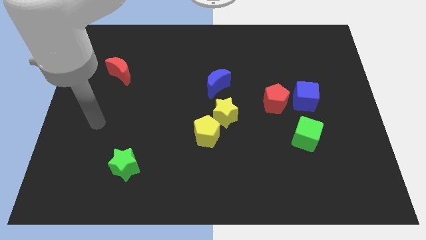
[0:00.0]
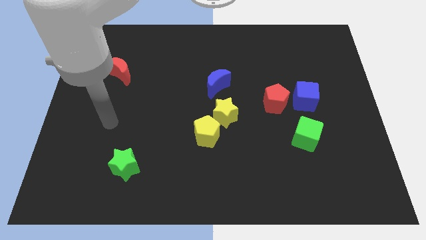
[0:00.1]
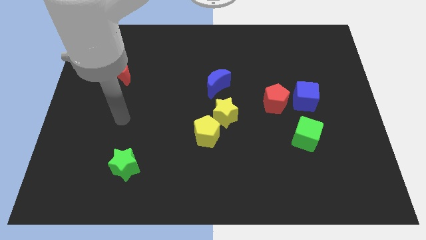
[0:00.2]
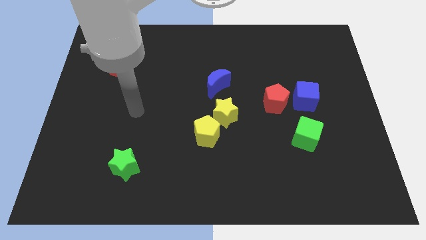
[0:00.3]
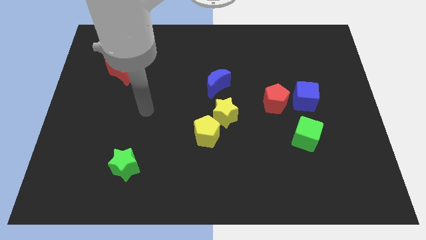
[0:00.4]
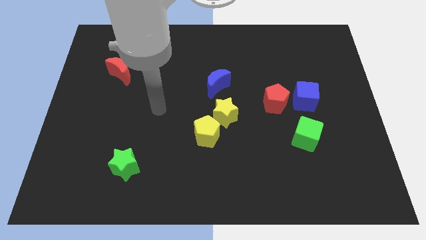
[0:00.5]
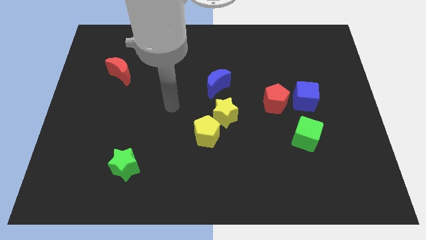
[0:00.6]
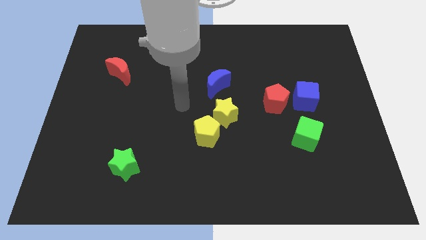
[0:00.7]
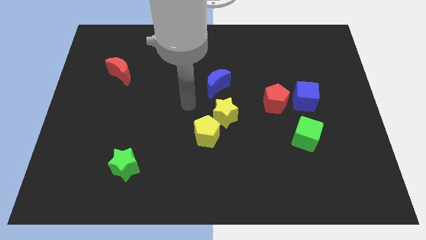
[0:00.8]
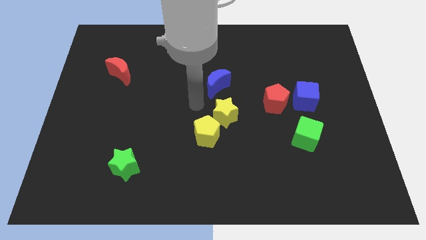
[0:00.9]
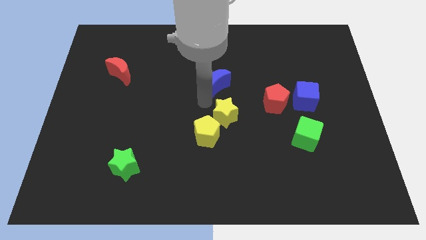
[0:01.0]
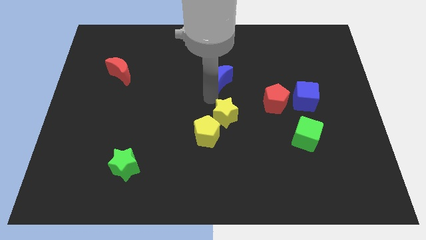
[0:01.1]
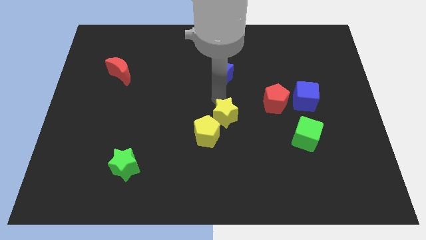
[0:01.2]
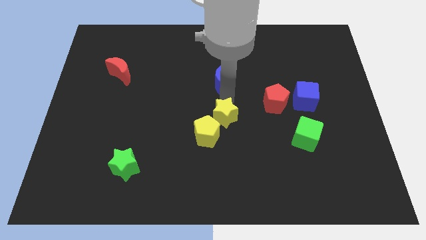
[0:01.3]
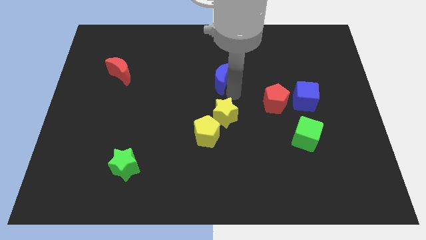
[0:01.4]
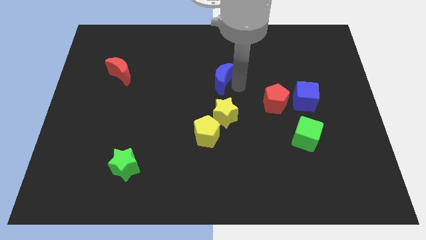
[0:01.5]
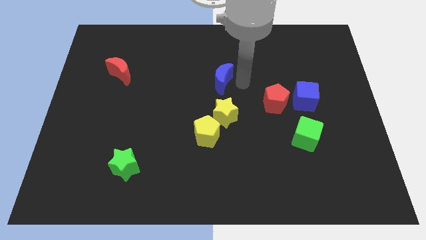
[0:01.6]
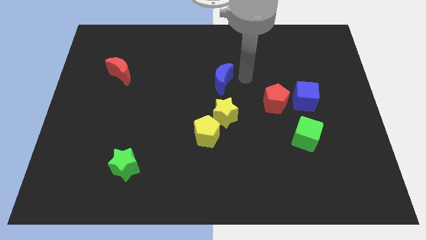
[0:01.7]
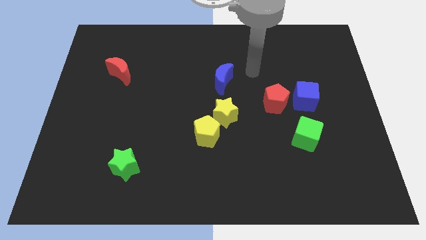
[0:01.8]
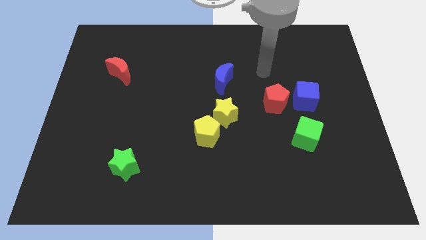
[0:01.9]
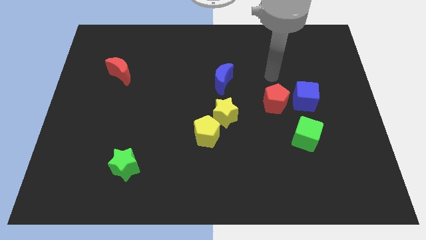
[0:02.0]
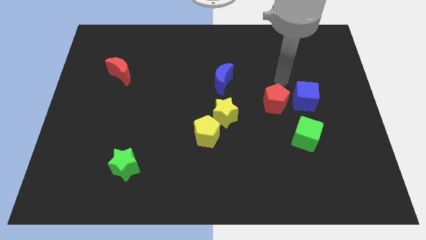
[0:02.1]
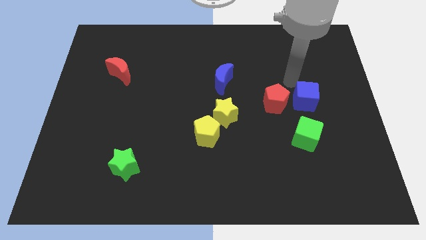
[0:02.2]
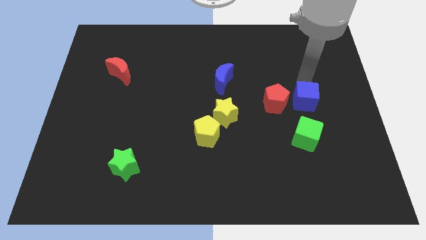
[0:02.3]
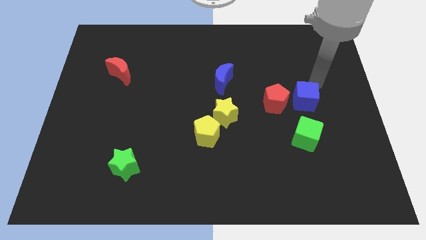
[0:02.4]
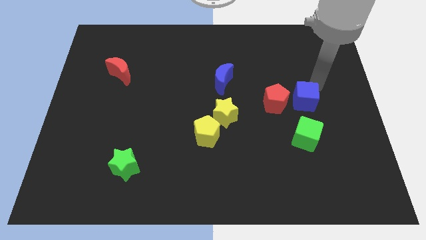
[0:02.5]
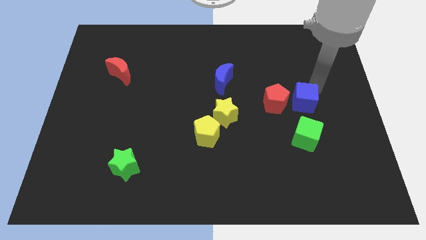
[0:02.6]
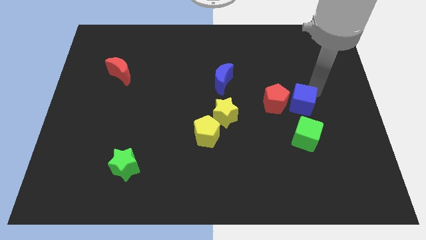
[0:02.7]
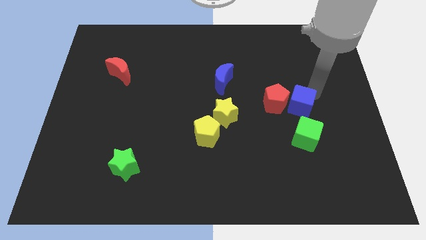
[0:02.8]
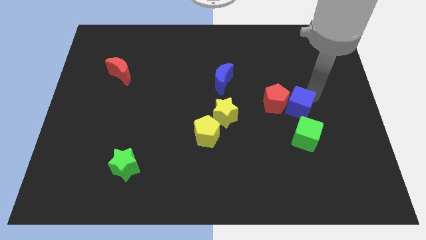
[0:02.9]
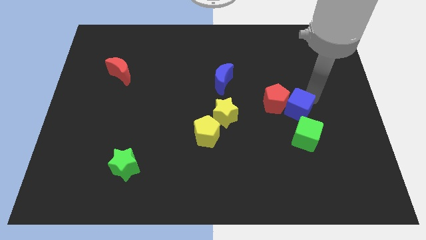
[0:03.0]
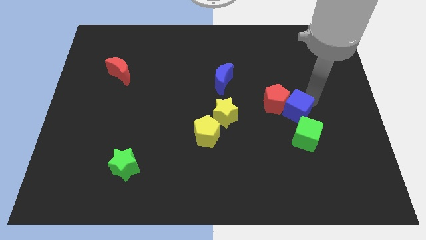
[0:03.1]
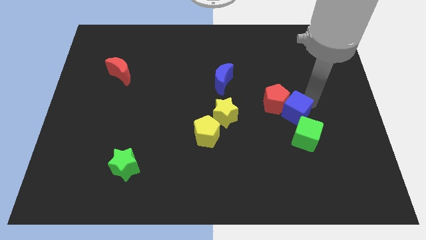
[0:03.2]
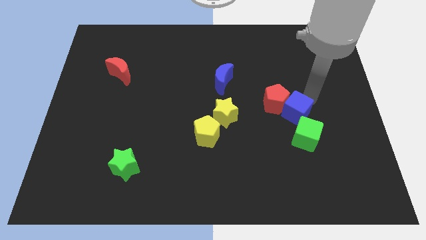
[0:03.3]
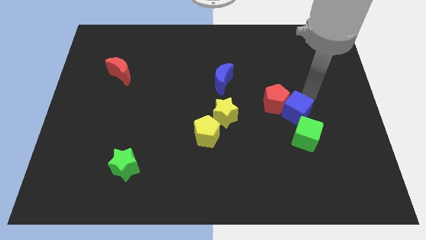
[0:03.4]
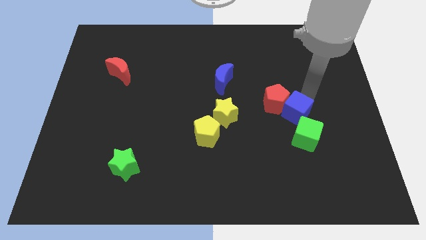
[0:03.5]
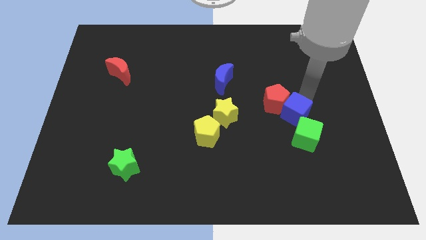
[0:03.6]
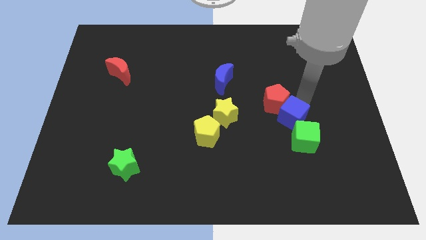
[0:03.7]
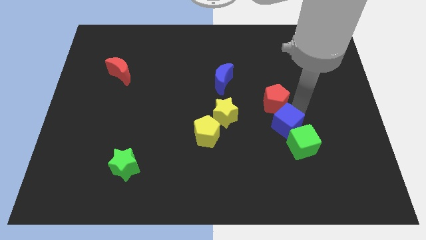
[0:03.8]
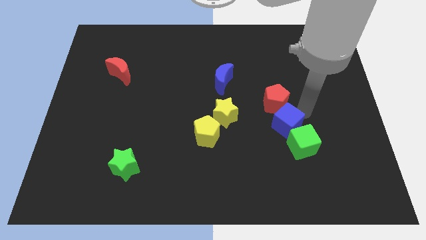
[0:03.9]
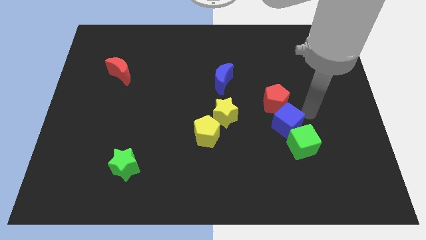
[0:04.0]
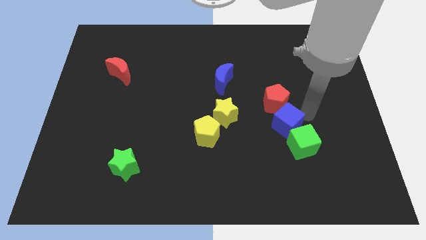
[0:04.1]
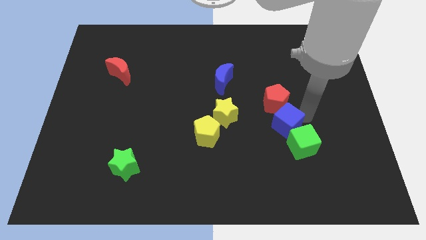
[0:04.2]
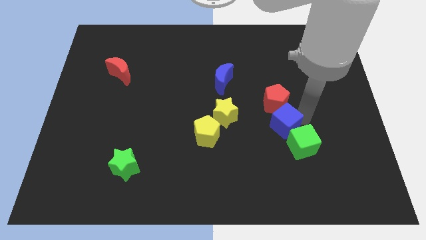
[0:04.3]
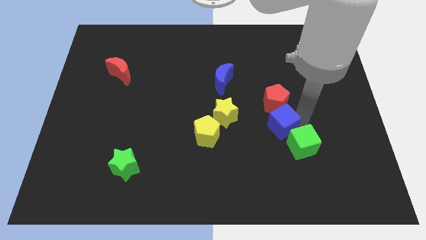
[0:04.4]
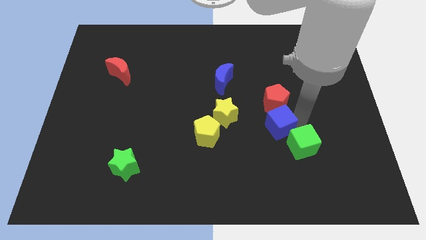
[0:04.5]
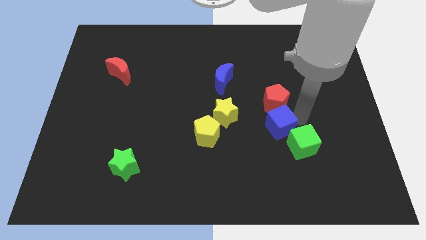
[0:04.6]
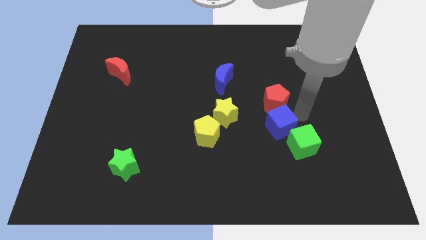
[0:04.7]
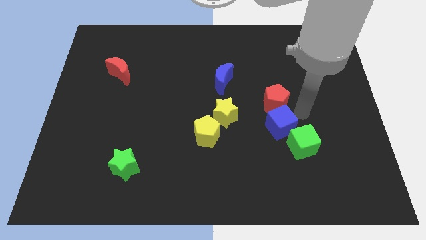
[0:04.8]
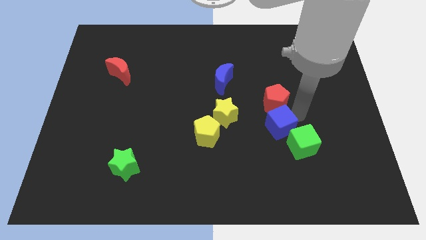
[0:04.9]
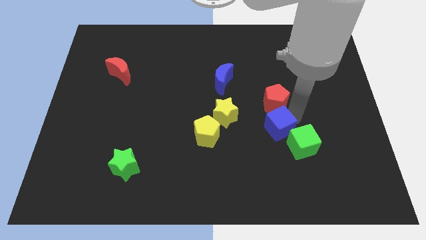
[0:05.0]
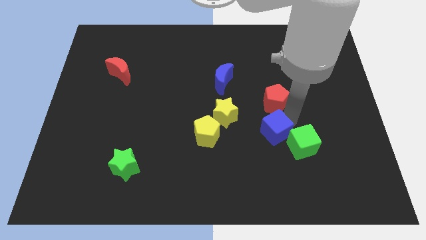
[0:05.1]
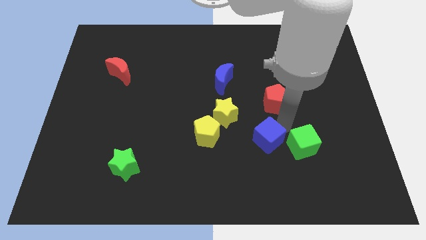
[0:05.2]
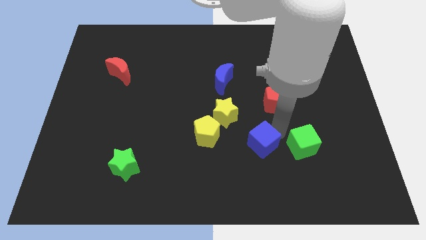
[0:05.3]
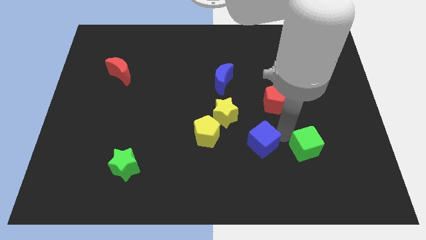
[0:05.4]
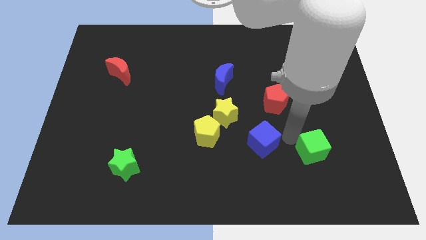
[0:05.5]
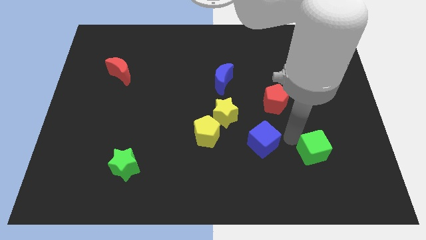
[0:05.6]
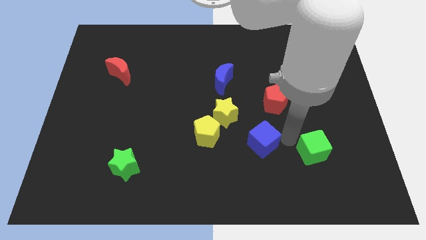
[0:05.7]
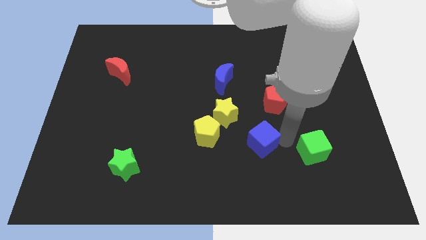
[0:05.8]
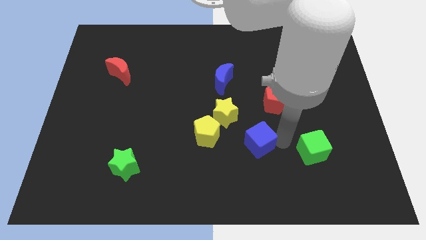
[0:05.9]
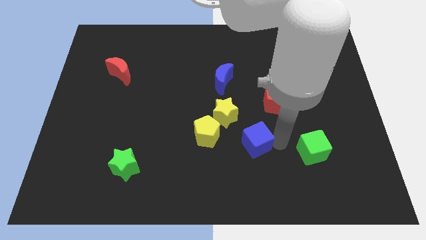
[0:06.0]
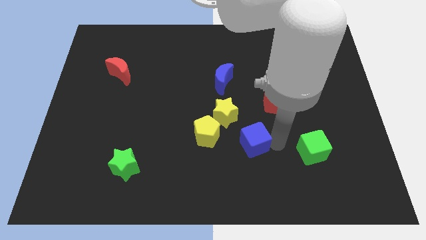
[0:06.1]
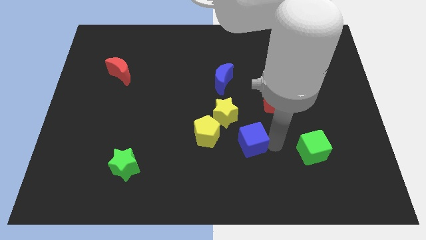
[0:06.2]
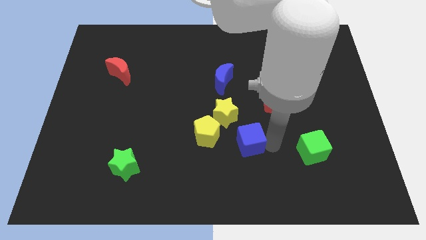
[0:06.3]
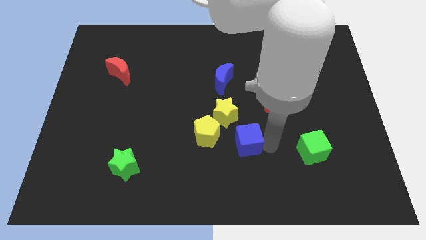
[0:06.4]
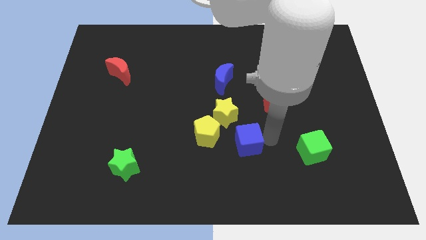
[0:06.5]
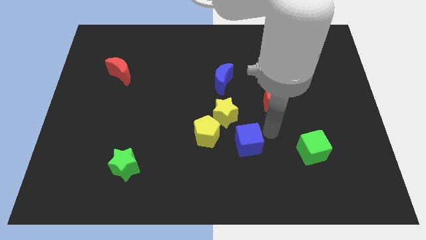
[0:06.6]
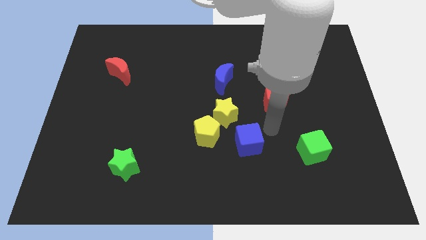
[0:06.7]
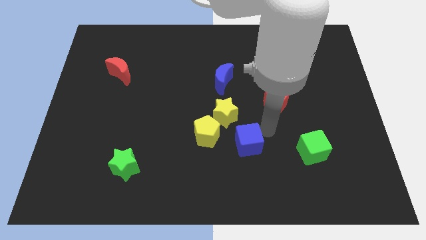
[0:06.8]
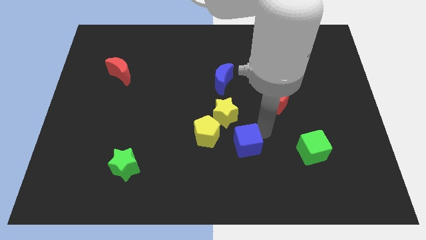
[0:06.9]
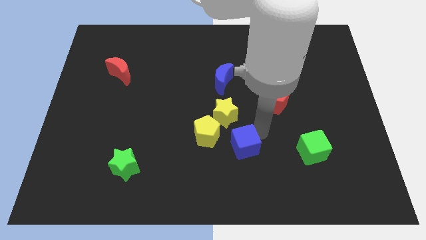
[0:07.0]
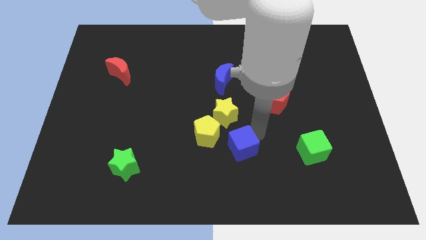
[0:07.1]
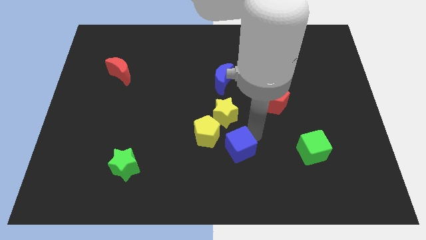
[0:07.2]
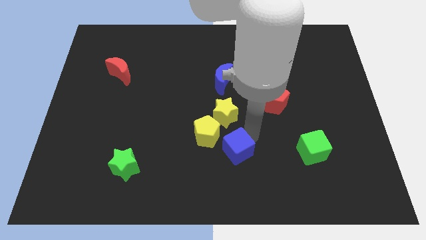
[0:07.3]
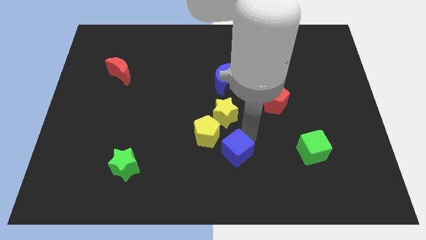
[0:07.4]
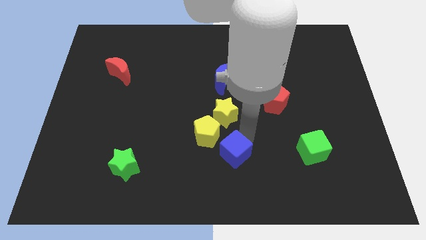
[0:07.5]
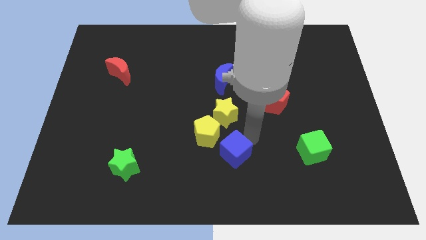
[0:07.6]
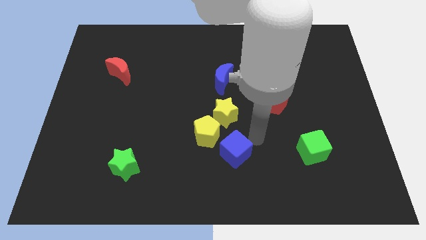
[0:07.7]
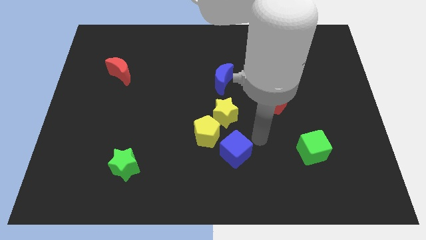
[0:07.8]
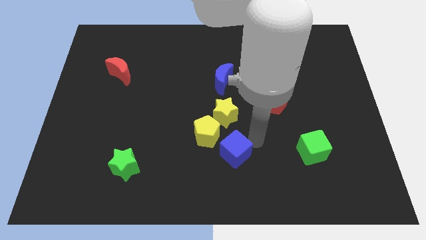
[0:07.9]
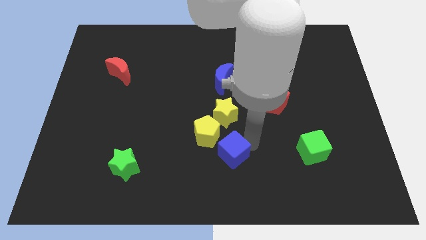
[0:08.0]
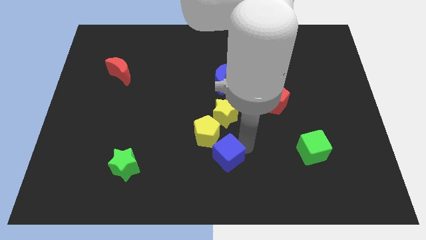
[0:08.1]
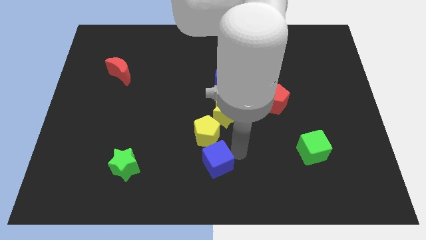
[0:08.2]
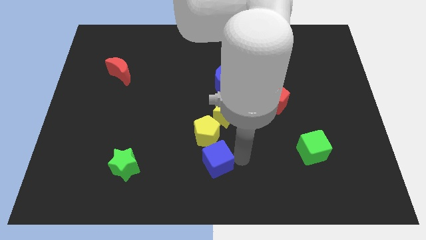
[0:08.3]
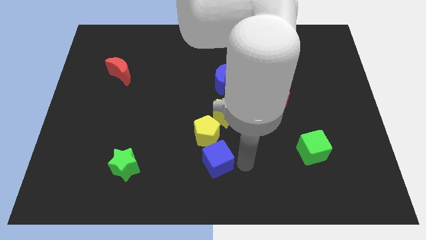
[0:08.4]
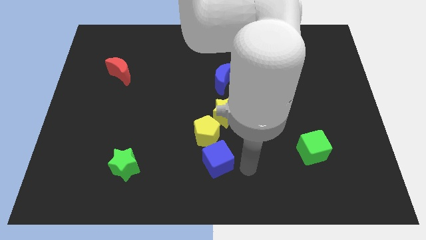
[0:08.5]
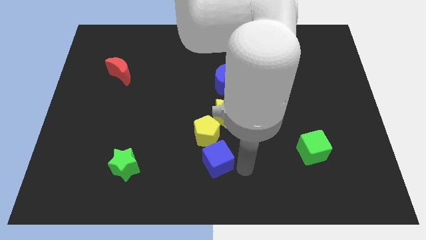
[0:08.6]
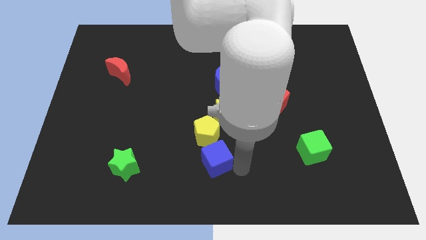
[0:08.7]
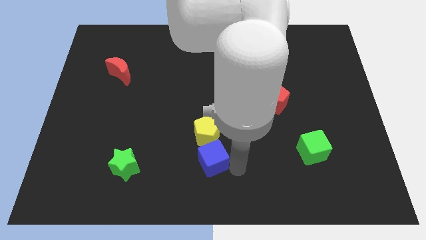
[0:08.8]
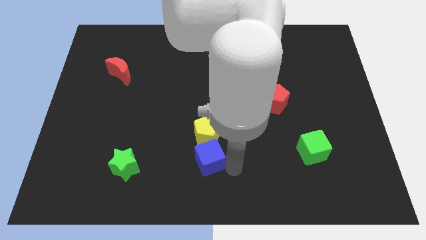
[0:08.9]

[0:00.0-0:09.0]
slide the blue cube to the bottom left side of the yellow pentagon
